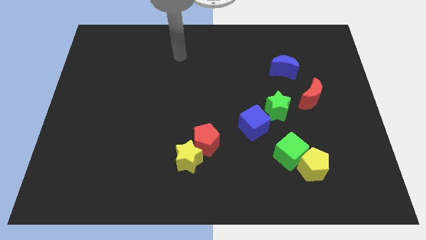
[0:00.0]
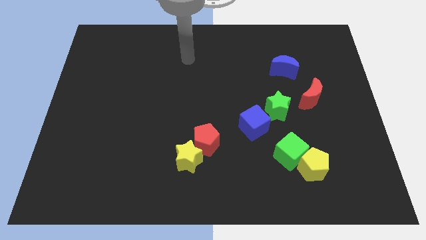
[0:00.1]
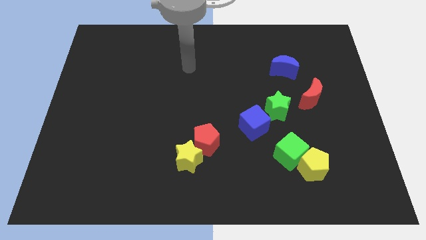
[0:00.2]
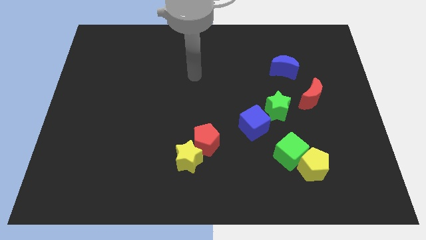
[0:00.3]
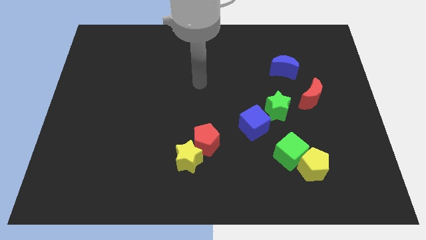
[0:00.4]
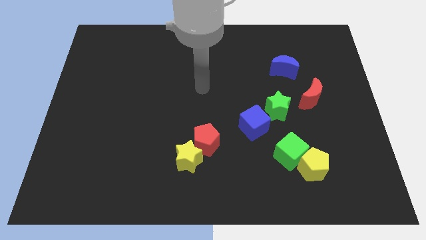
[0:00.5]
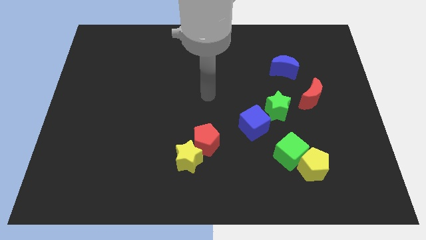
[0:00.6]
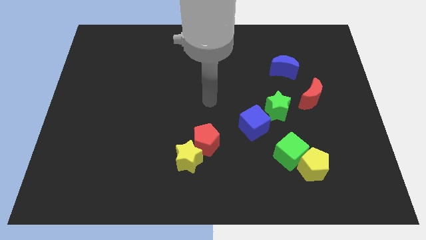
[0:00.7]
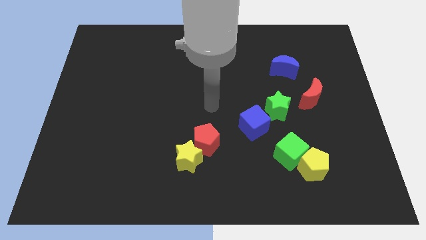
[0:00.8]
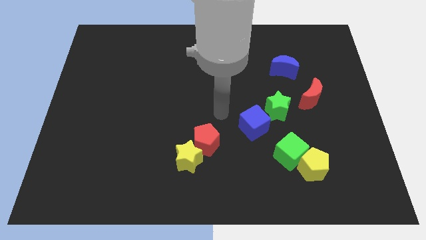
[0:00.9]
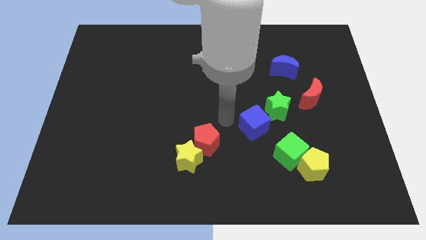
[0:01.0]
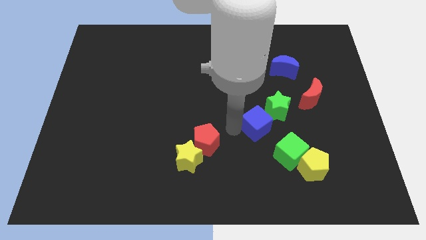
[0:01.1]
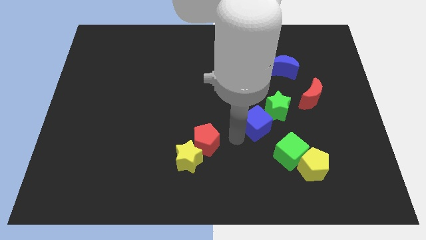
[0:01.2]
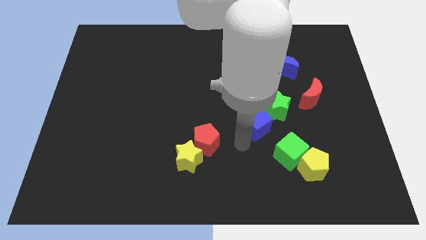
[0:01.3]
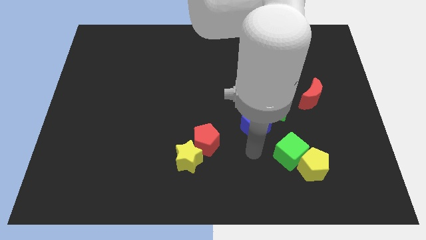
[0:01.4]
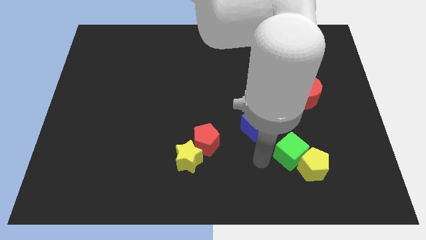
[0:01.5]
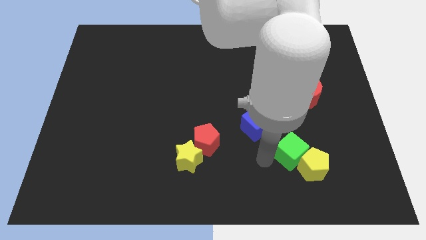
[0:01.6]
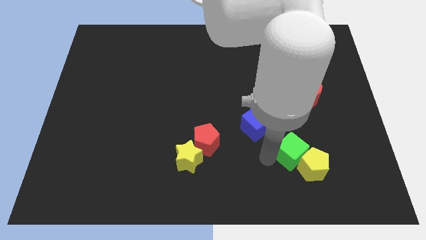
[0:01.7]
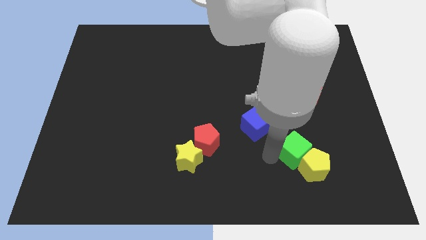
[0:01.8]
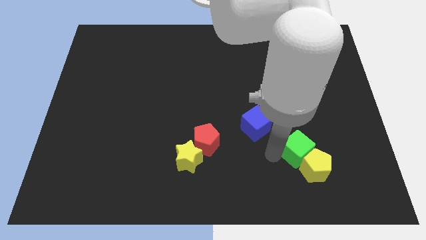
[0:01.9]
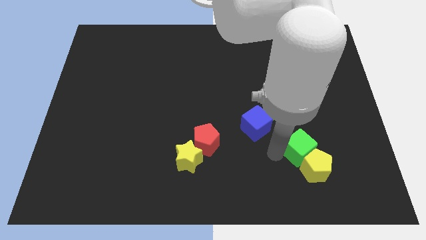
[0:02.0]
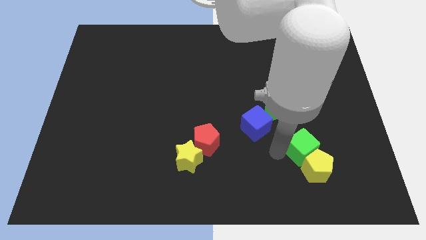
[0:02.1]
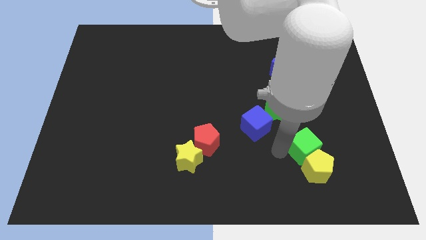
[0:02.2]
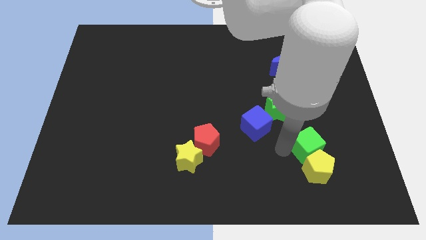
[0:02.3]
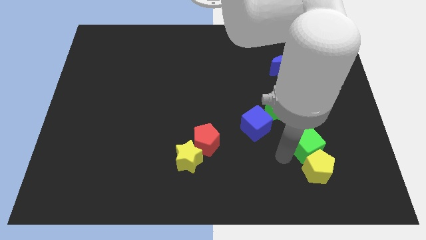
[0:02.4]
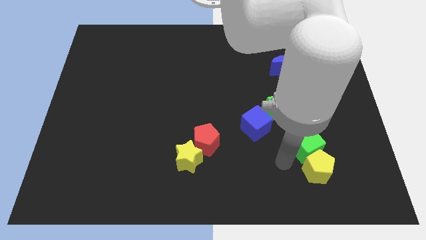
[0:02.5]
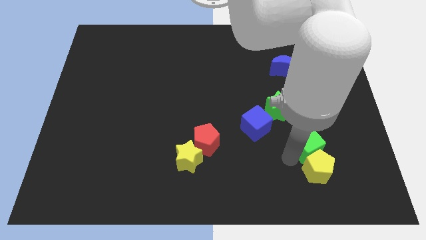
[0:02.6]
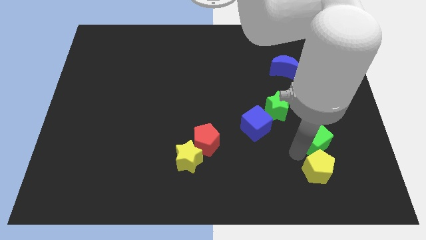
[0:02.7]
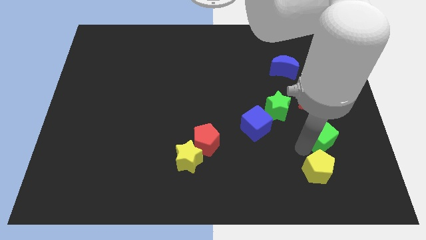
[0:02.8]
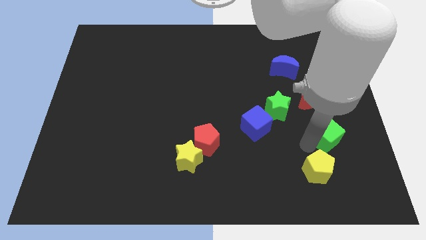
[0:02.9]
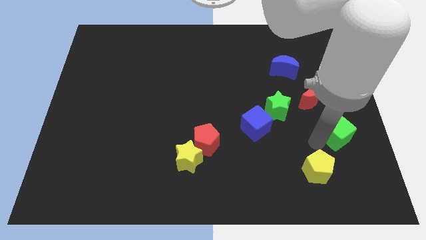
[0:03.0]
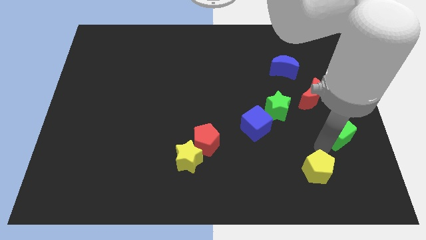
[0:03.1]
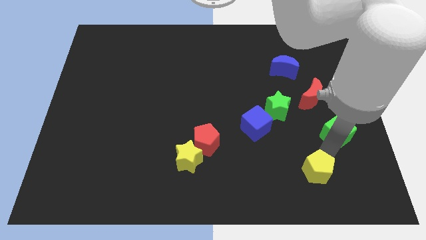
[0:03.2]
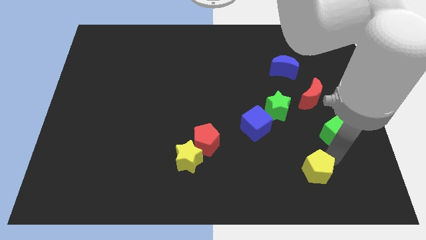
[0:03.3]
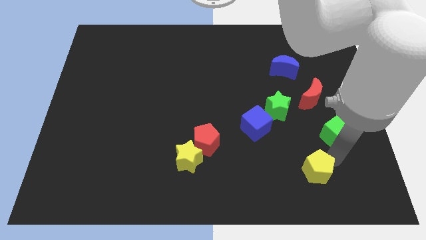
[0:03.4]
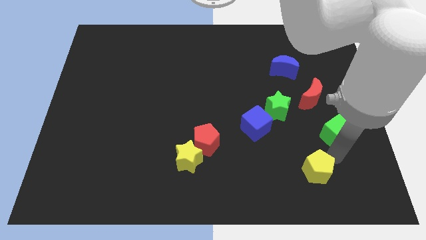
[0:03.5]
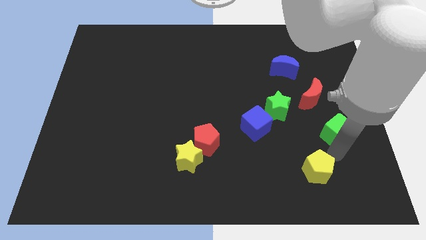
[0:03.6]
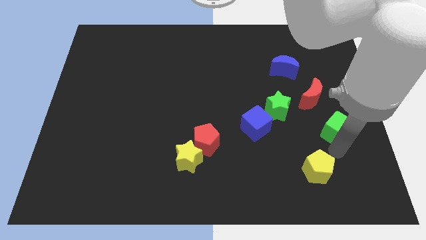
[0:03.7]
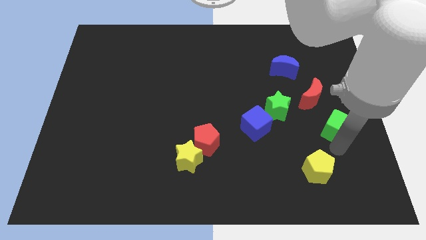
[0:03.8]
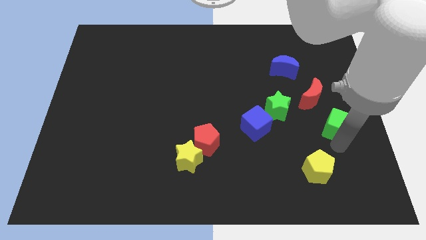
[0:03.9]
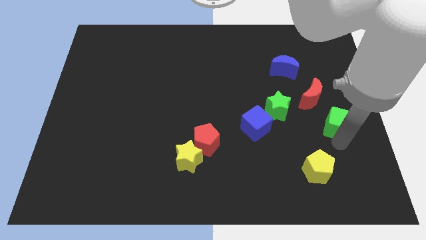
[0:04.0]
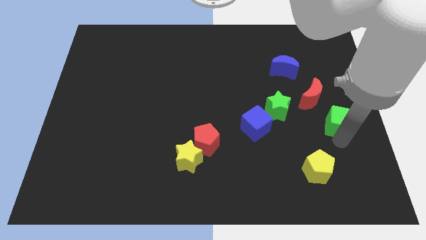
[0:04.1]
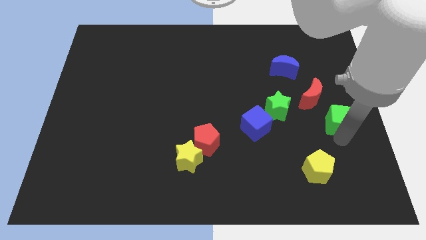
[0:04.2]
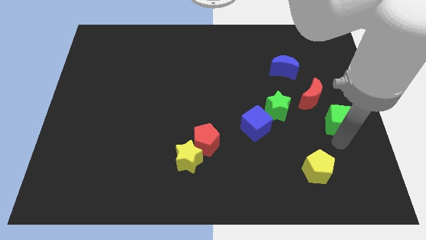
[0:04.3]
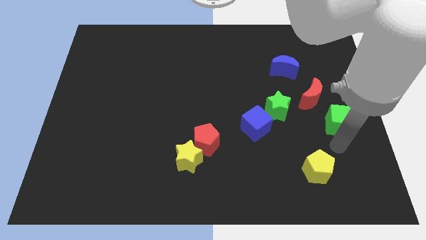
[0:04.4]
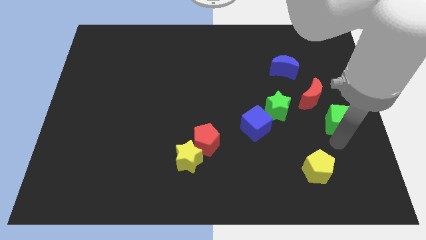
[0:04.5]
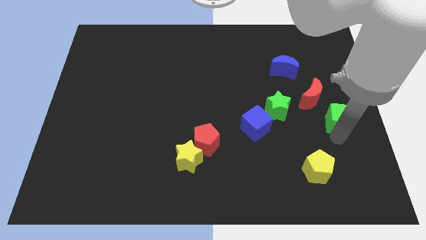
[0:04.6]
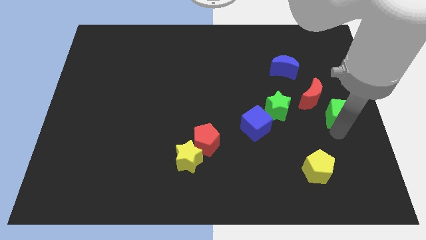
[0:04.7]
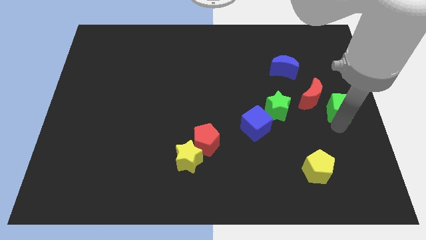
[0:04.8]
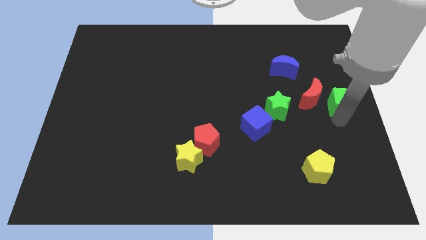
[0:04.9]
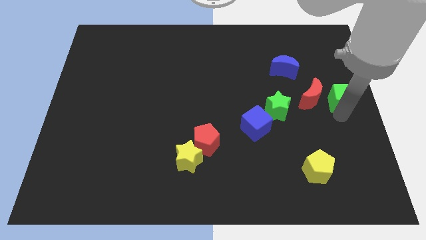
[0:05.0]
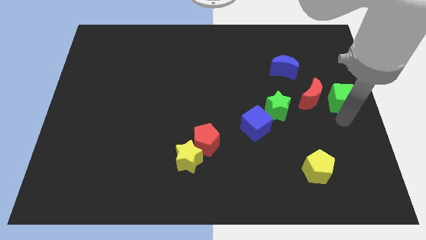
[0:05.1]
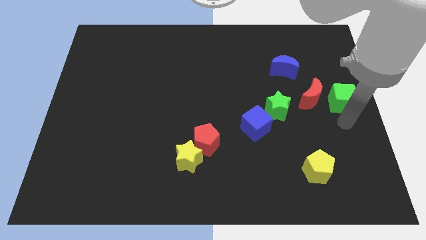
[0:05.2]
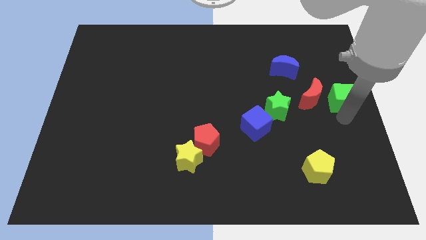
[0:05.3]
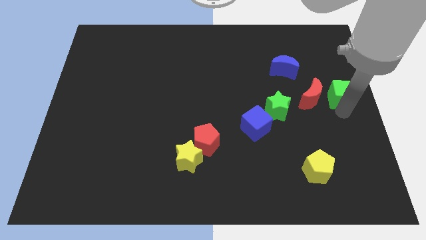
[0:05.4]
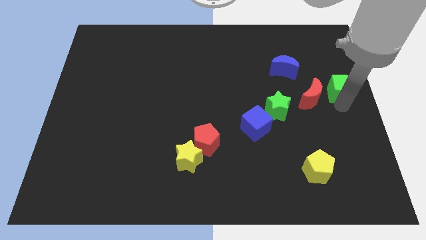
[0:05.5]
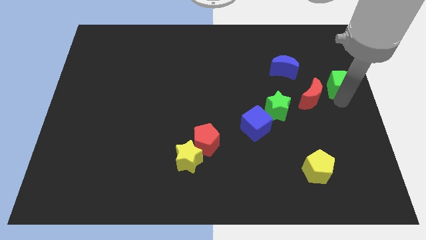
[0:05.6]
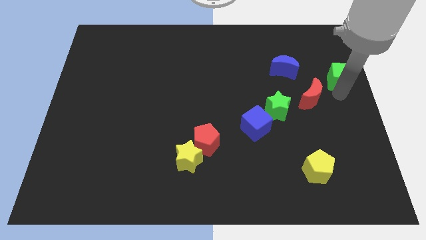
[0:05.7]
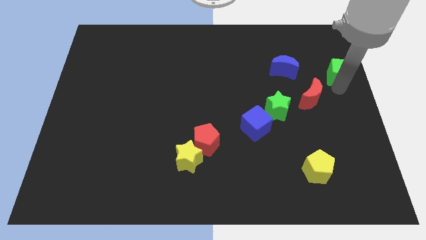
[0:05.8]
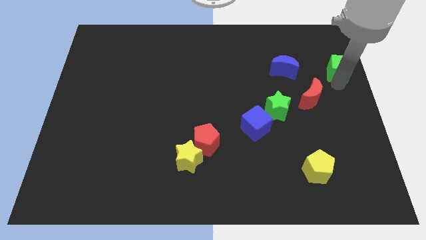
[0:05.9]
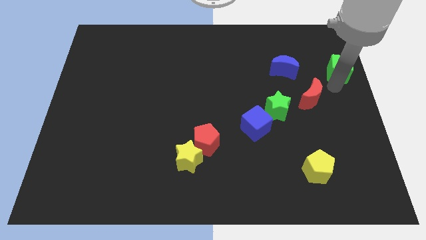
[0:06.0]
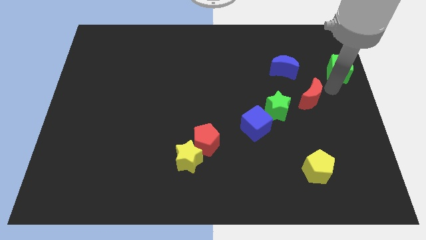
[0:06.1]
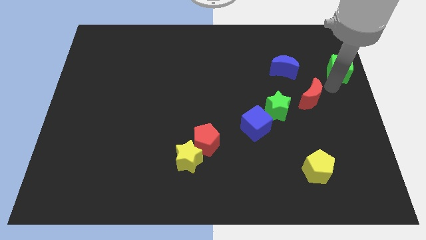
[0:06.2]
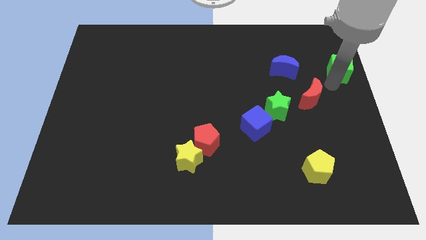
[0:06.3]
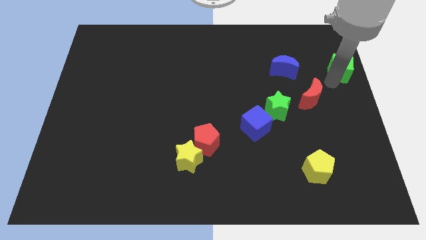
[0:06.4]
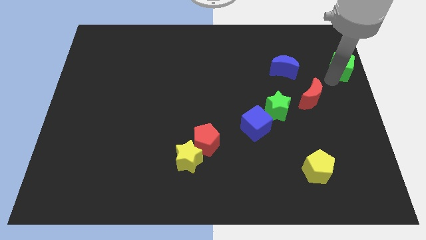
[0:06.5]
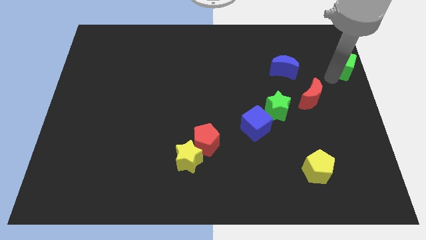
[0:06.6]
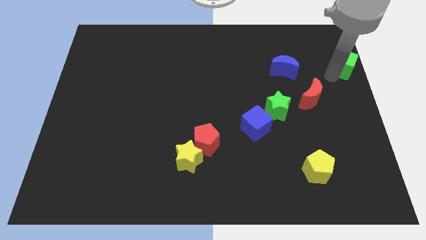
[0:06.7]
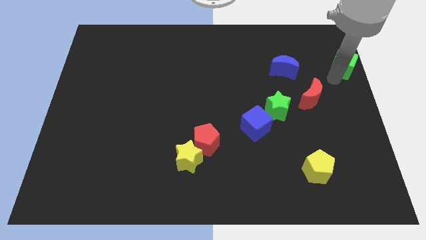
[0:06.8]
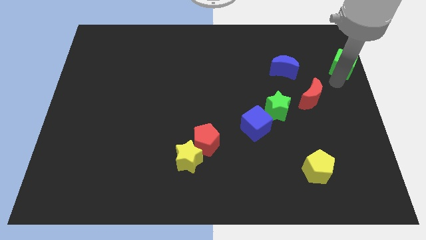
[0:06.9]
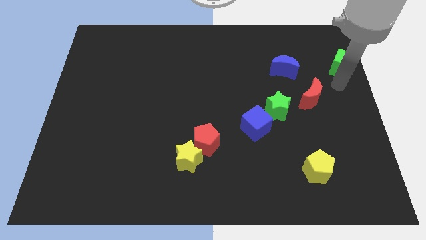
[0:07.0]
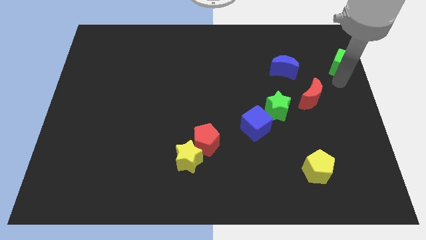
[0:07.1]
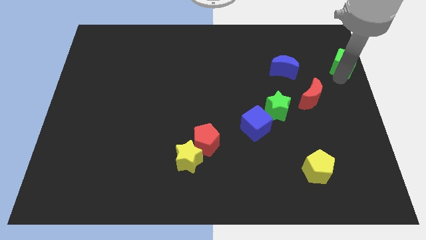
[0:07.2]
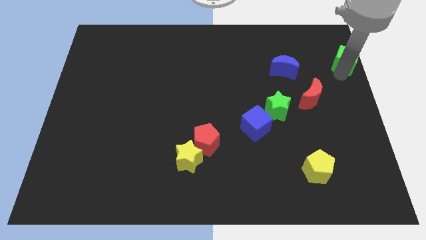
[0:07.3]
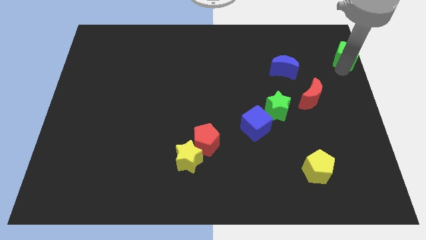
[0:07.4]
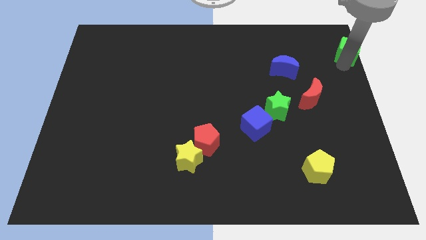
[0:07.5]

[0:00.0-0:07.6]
put the green cube to the top right
